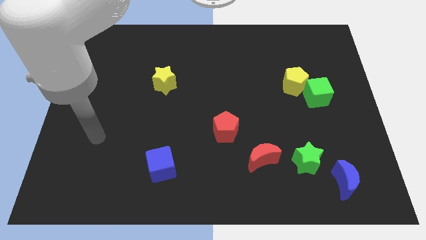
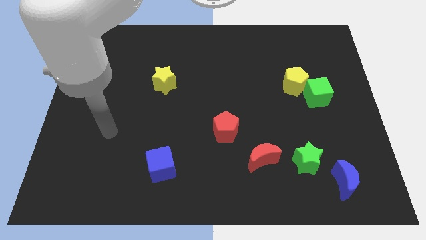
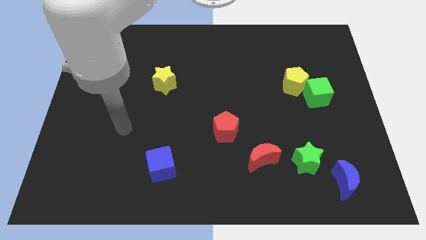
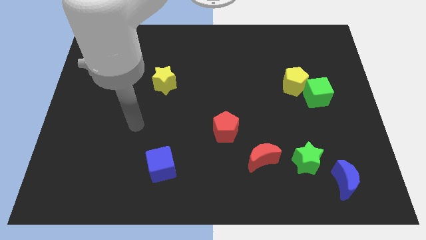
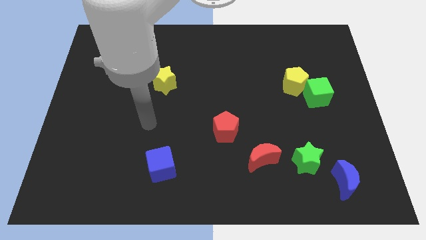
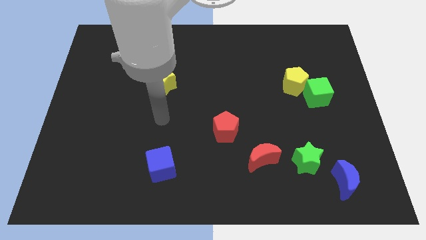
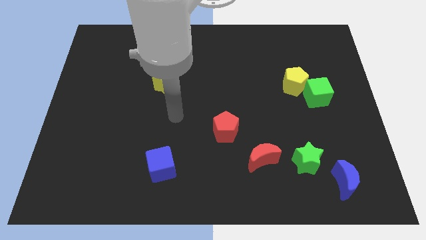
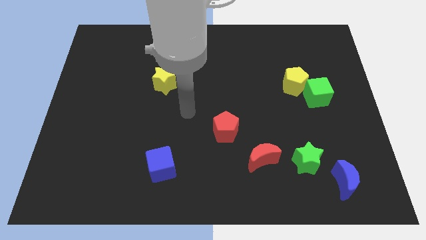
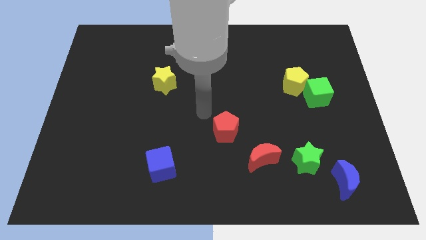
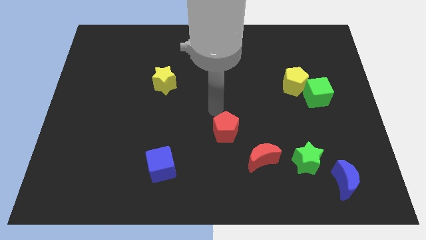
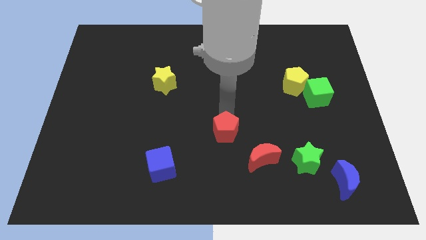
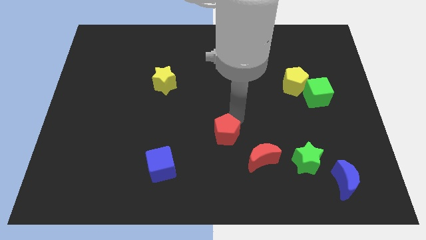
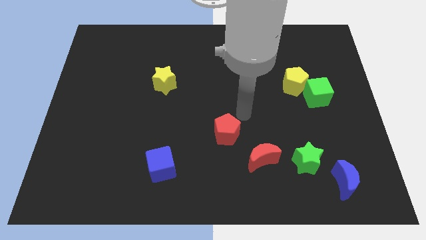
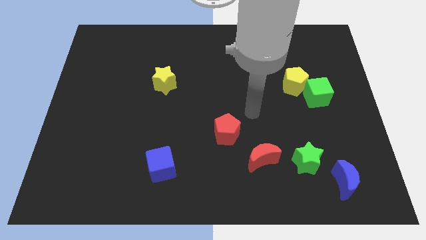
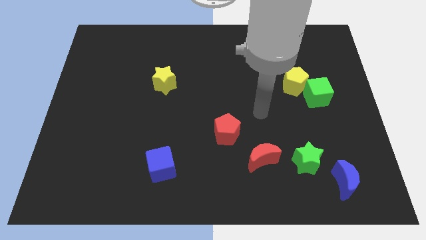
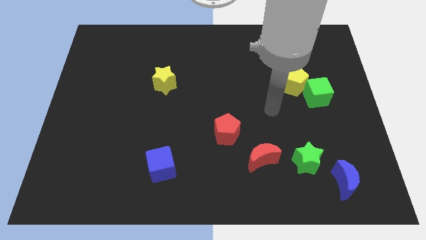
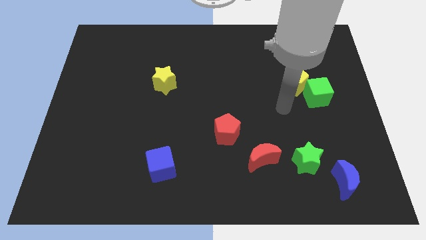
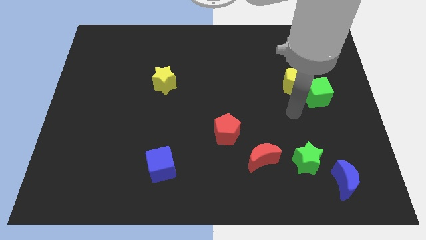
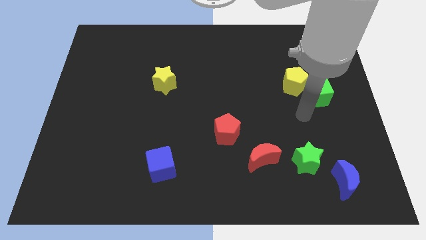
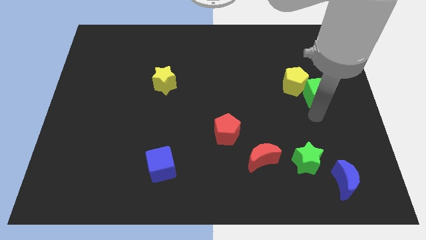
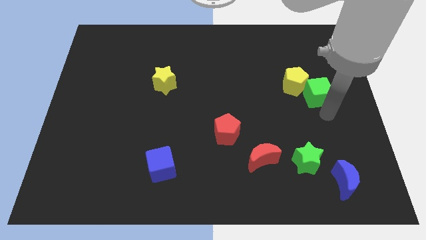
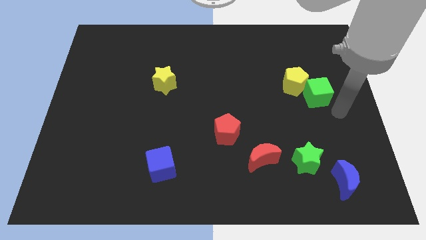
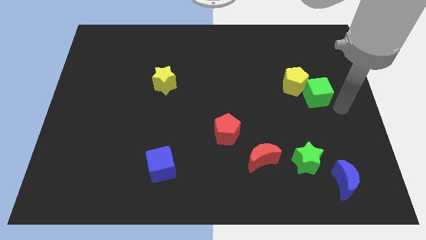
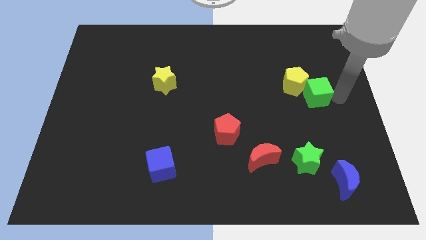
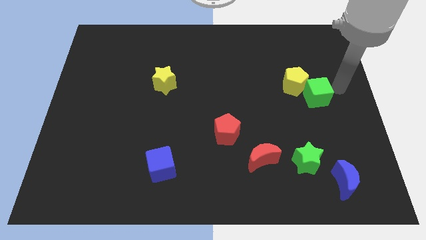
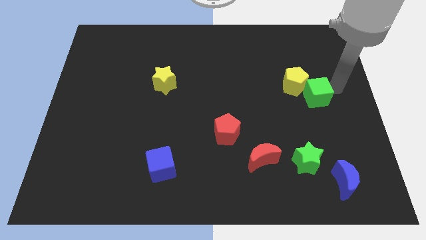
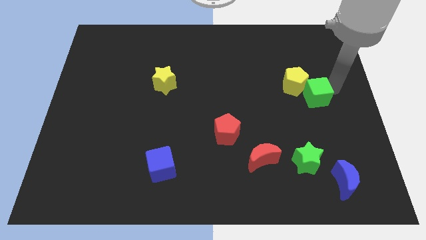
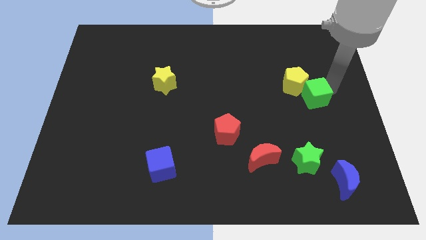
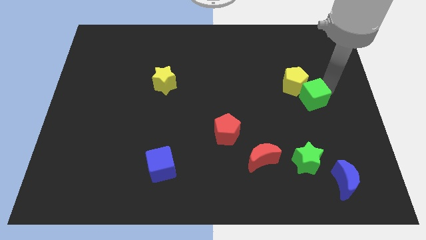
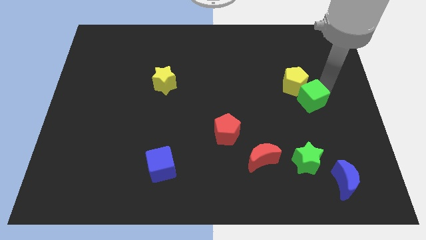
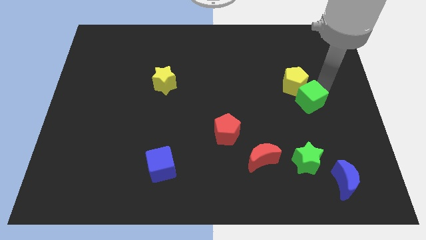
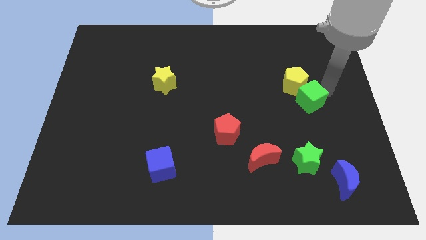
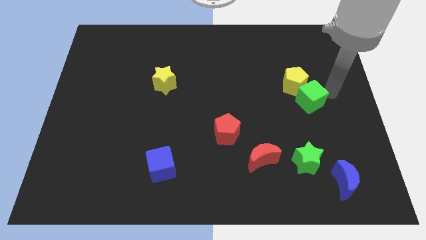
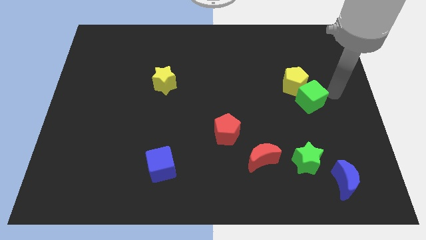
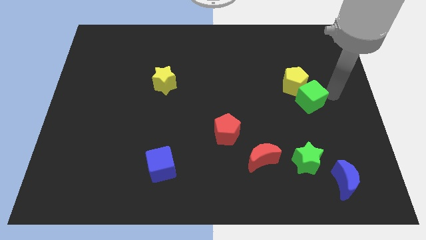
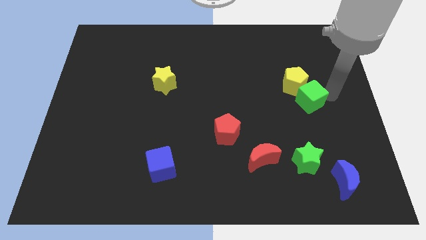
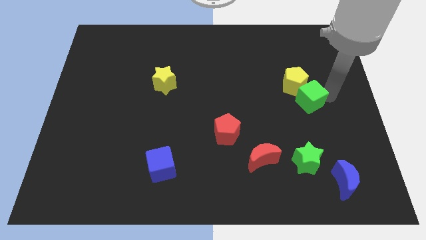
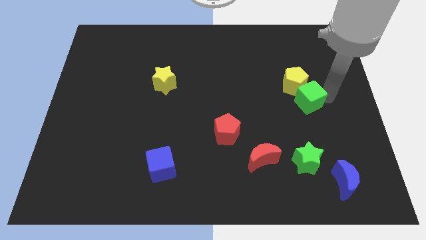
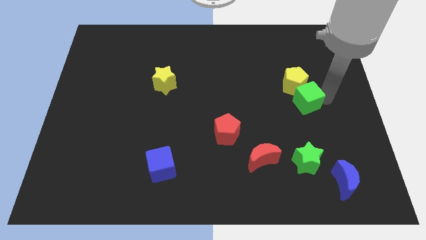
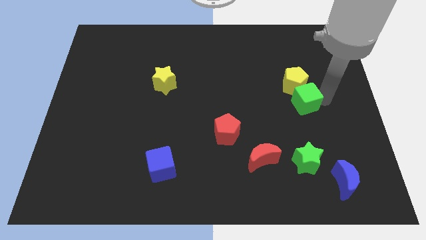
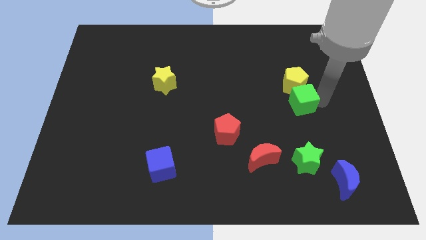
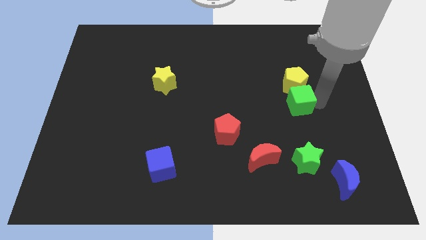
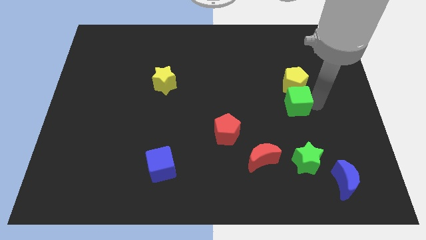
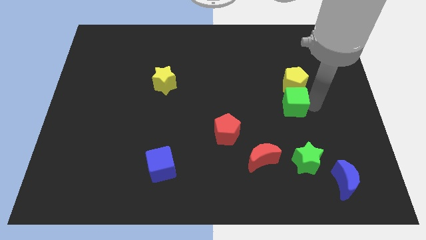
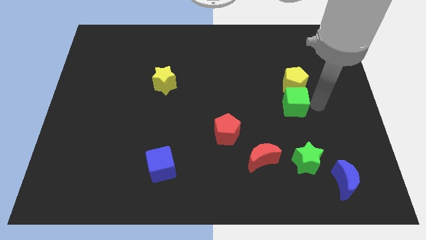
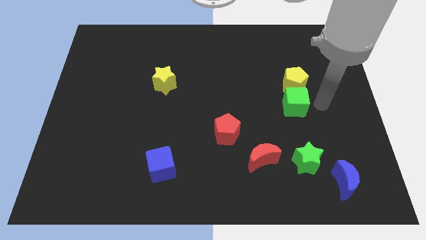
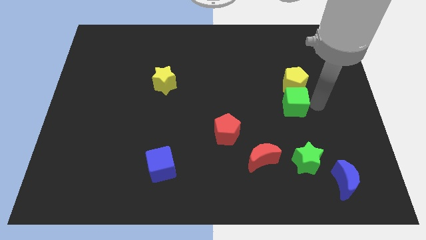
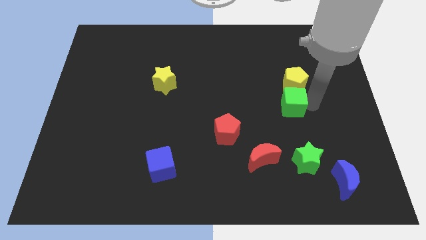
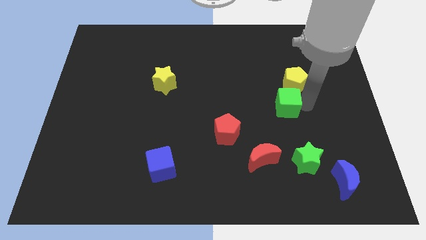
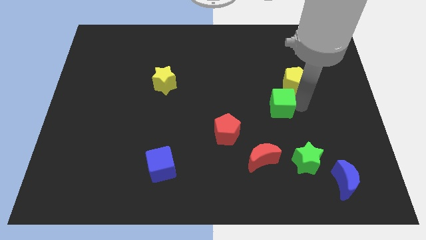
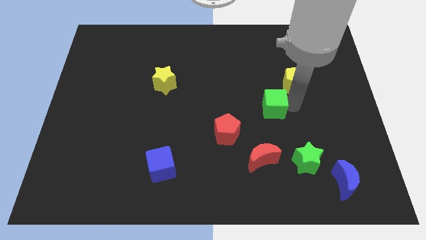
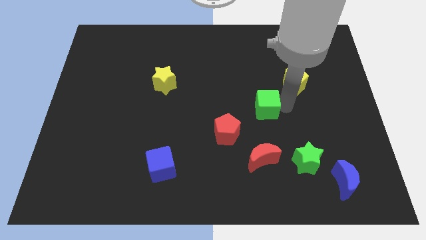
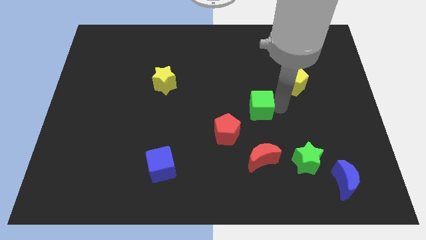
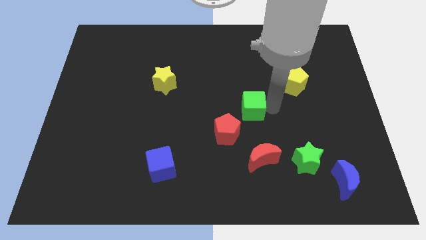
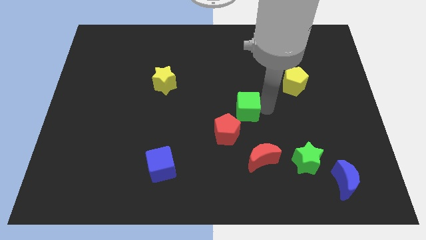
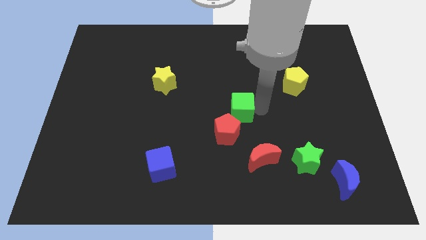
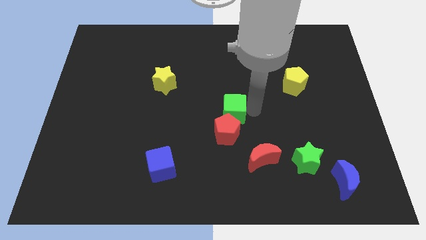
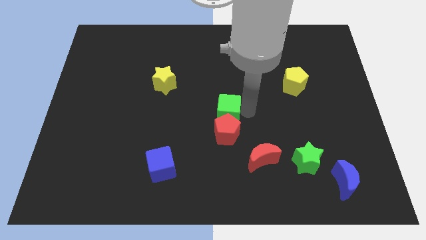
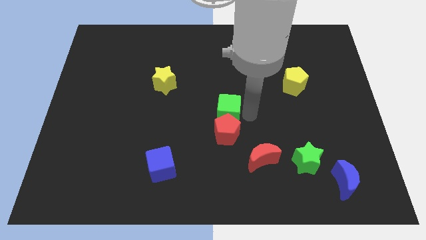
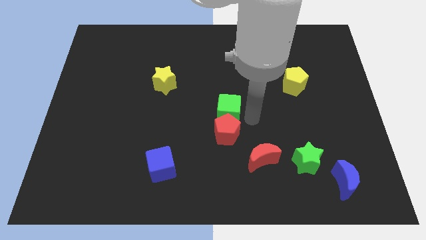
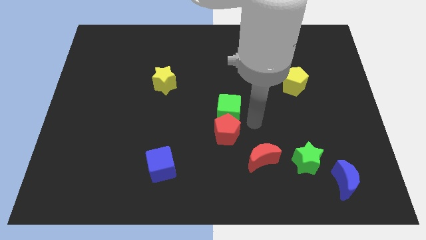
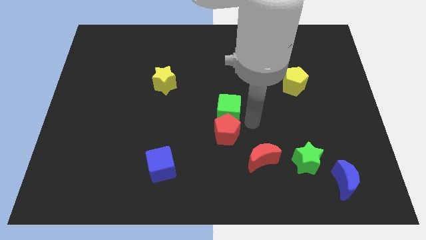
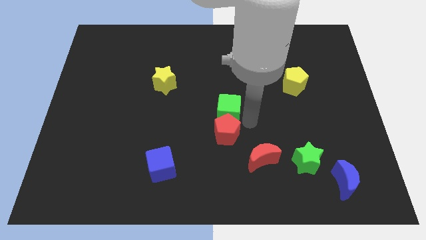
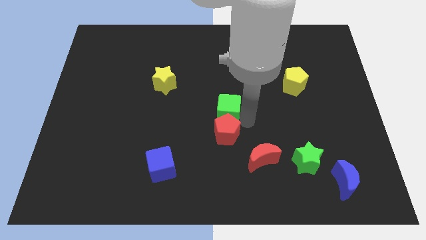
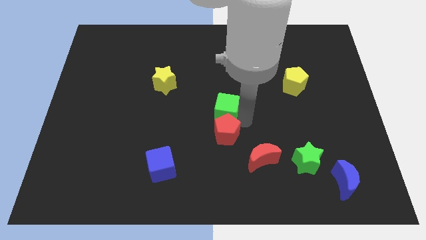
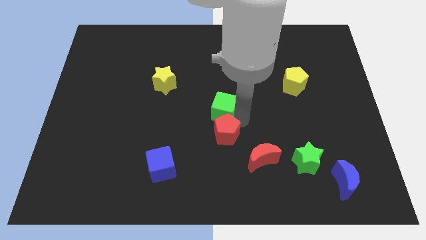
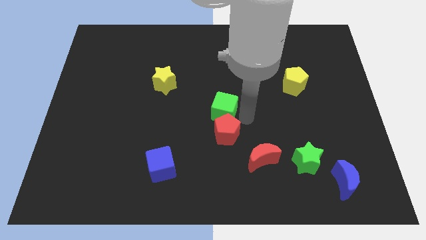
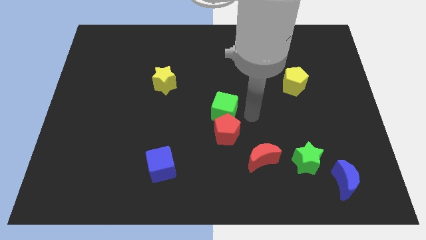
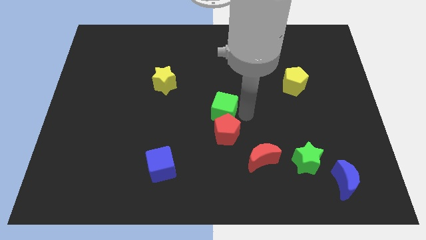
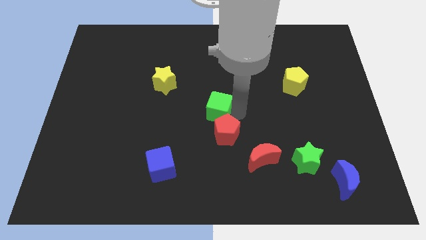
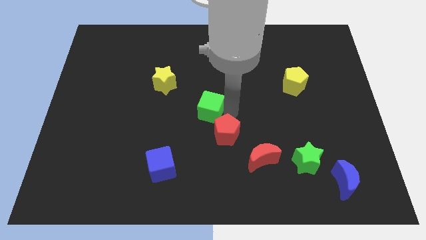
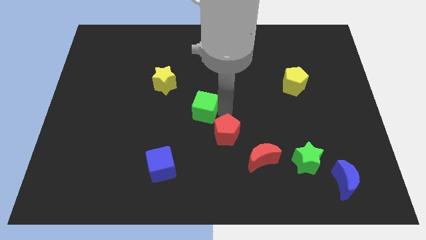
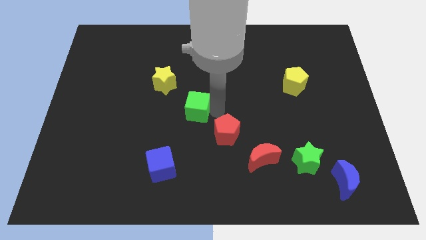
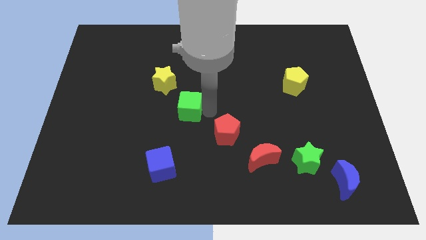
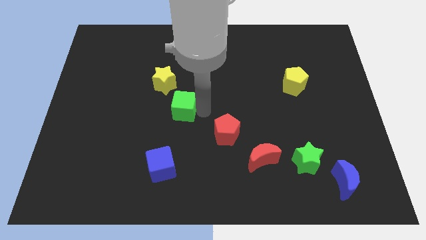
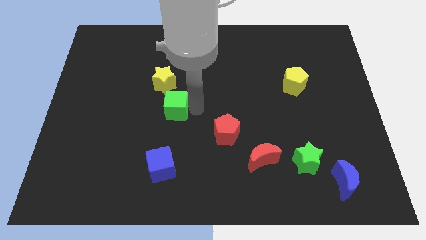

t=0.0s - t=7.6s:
move the green cube below the yellow star
